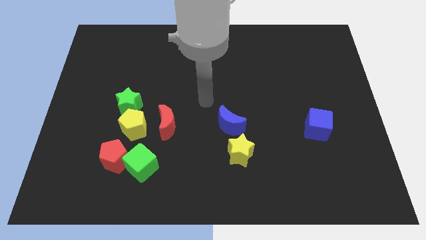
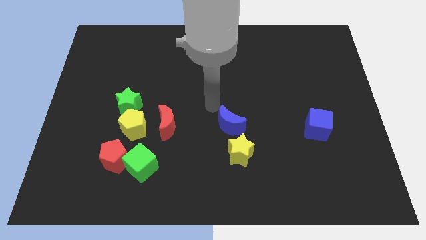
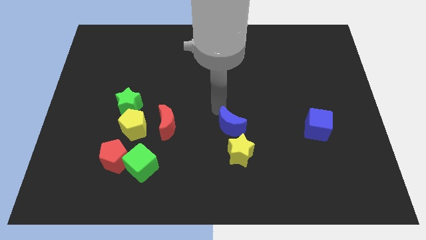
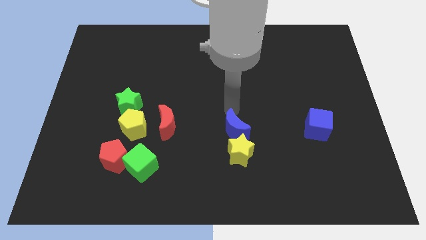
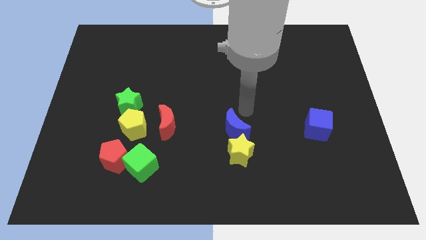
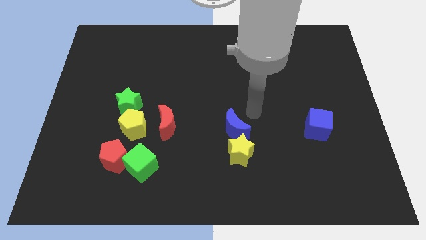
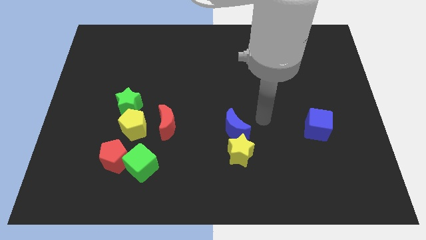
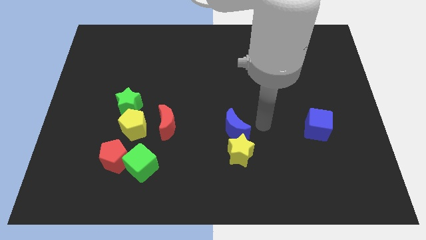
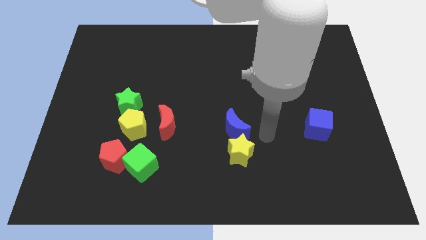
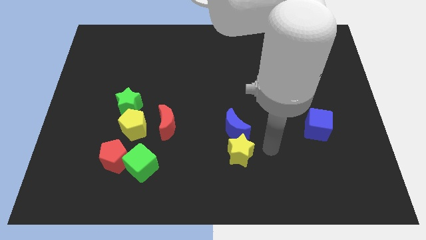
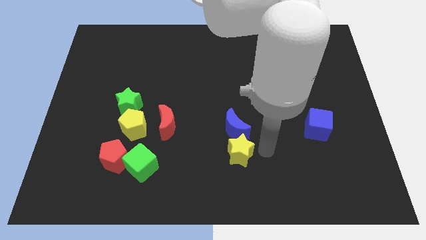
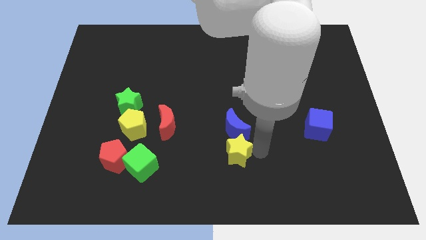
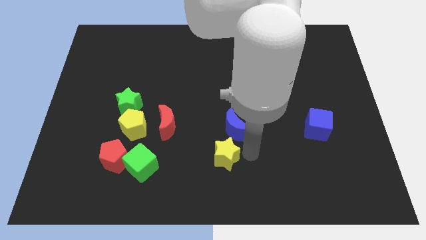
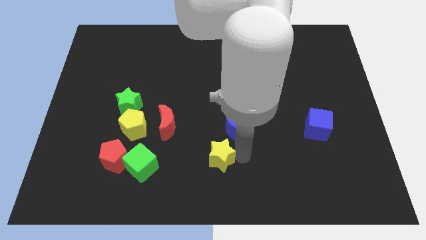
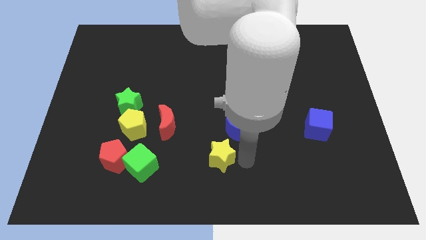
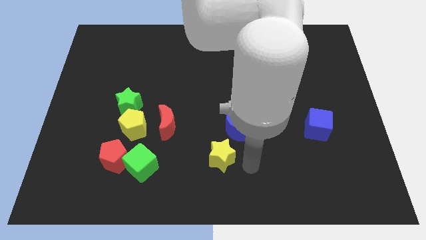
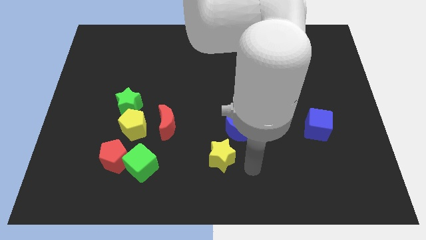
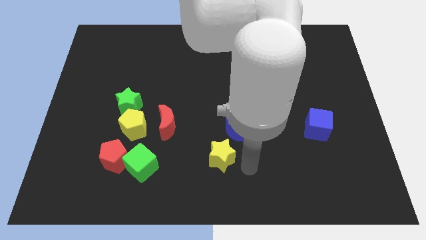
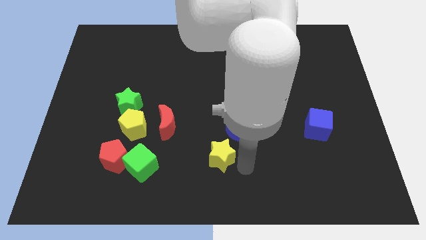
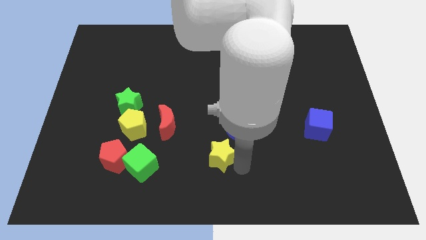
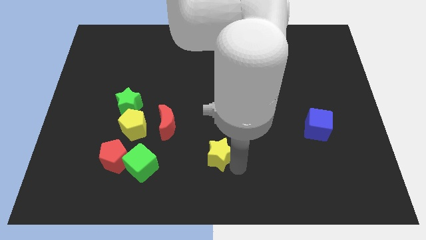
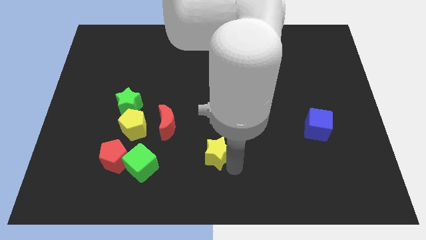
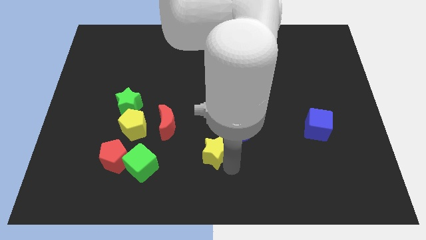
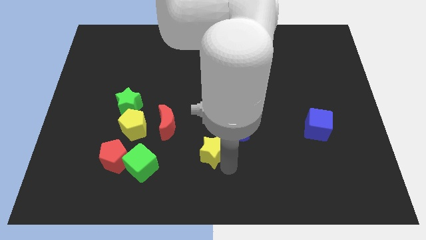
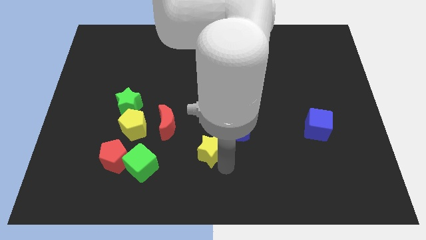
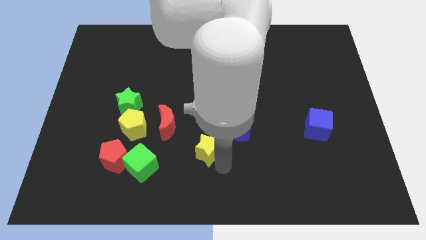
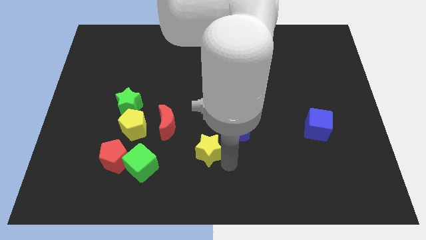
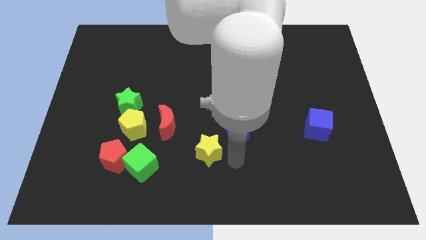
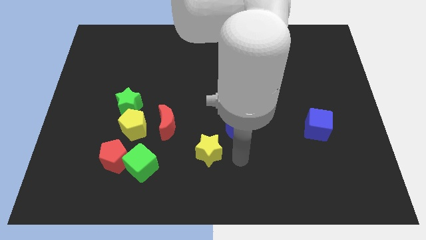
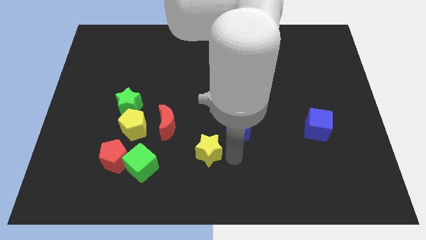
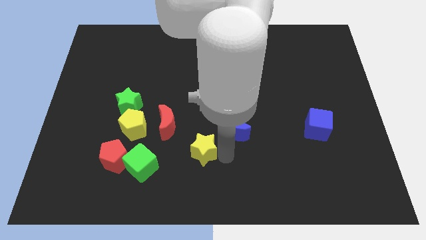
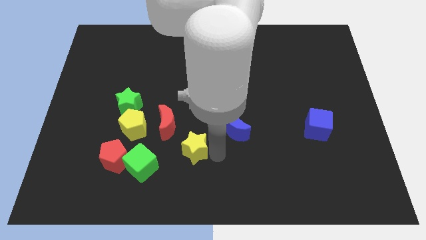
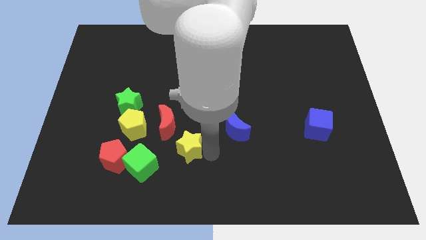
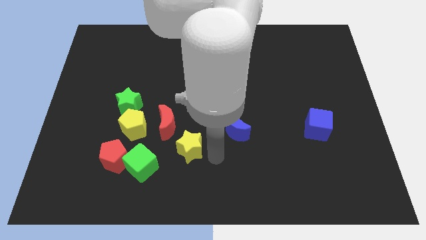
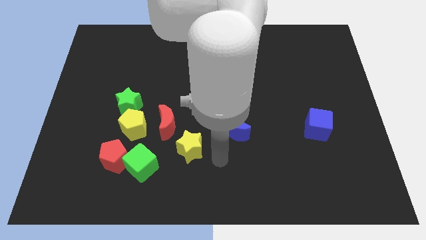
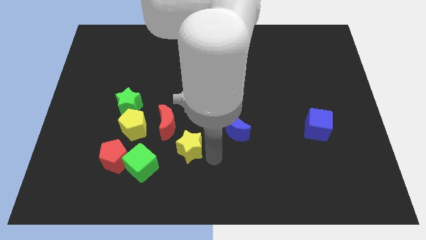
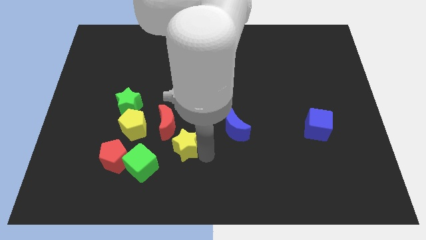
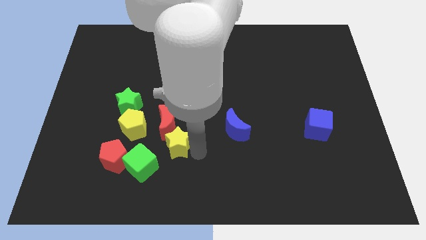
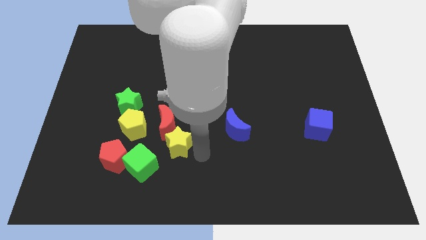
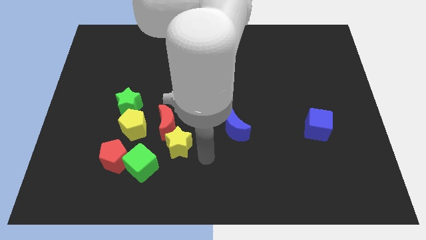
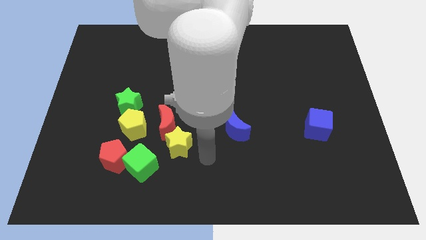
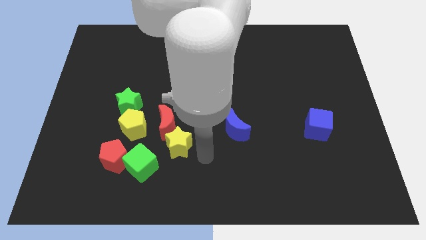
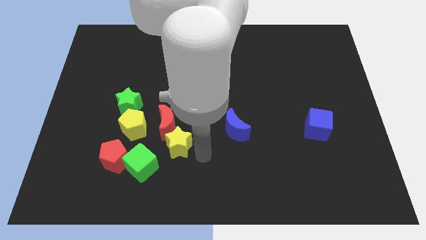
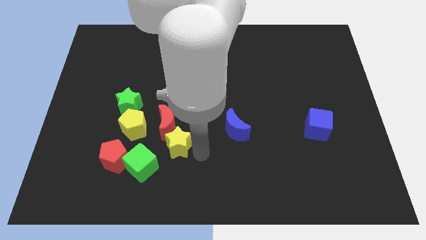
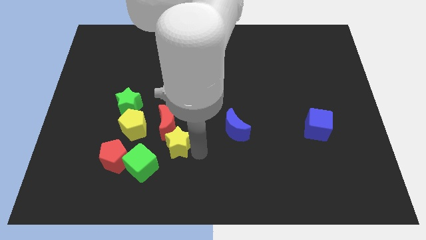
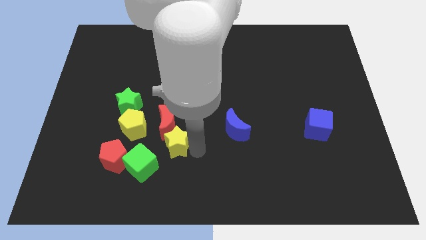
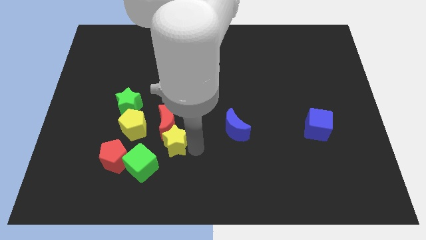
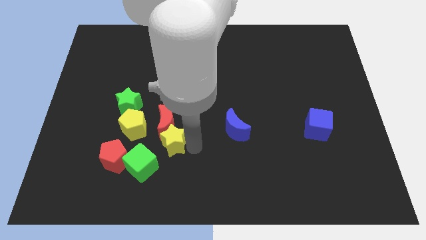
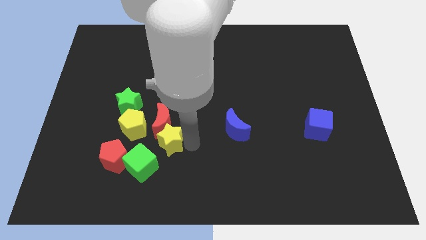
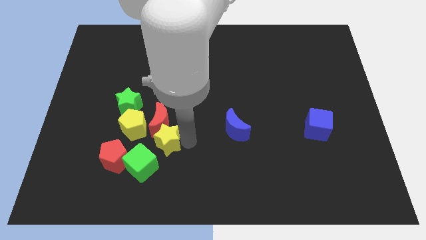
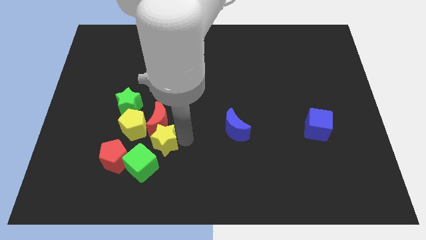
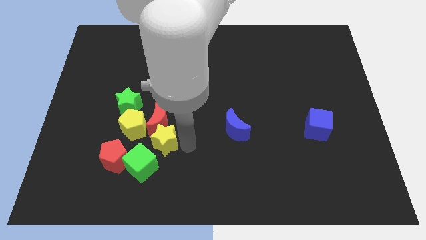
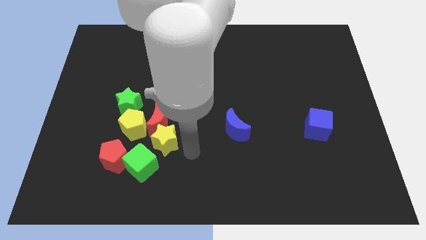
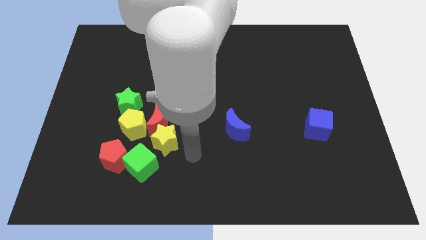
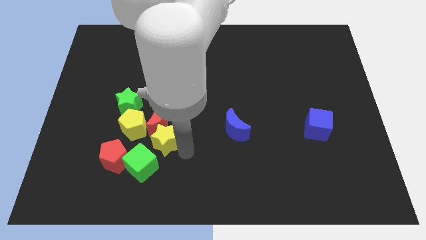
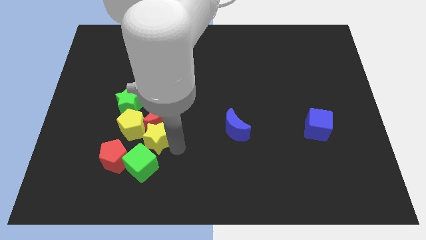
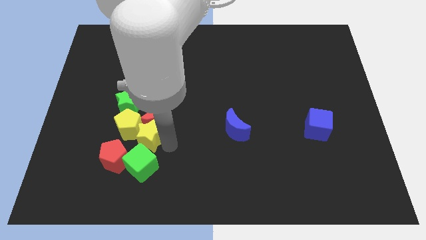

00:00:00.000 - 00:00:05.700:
slide the yellow star to the yellow pentagon

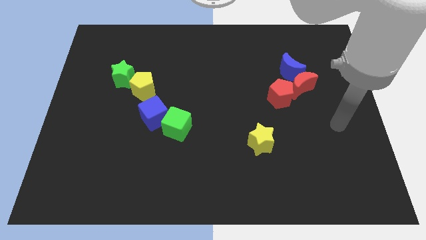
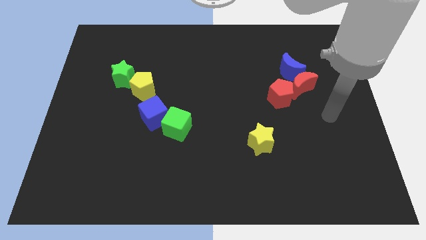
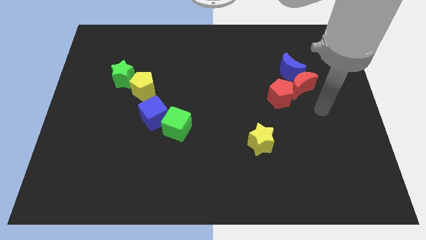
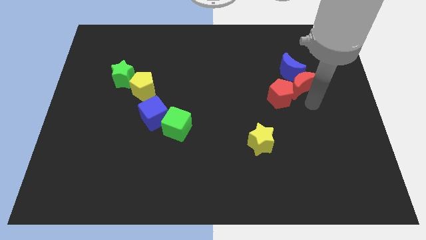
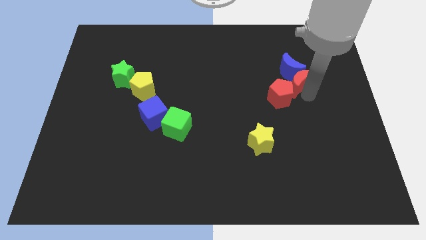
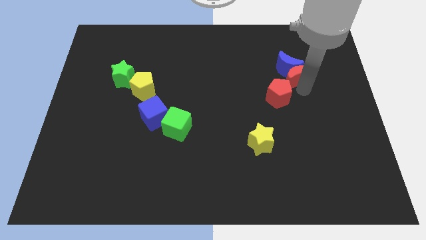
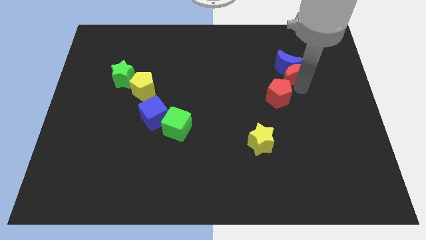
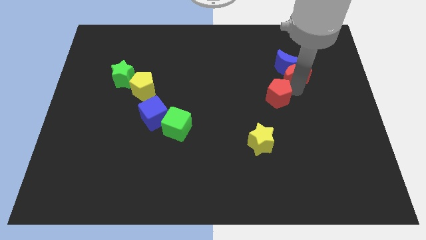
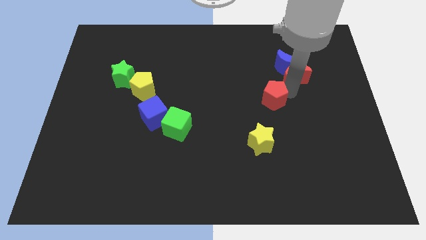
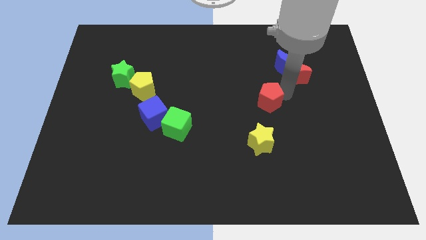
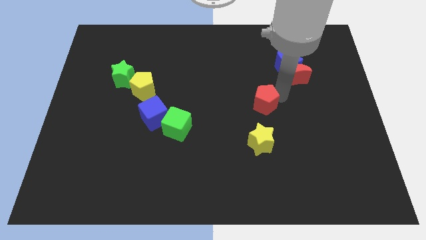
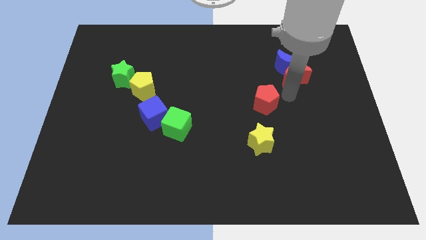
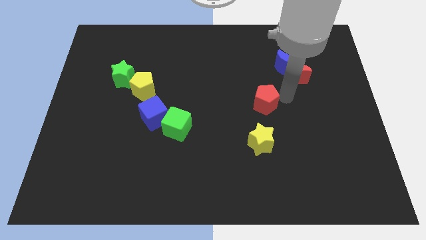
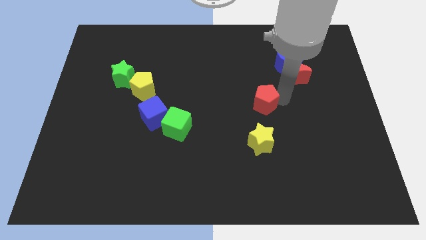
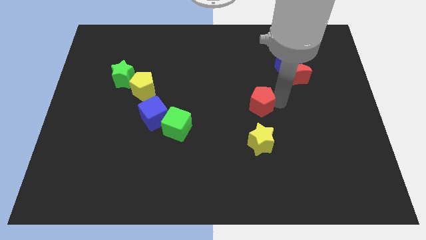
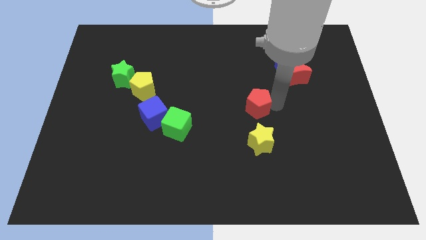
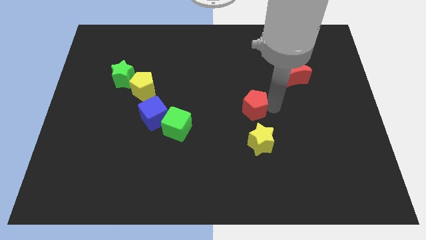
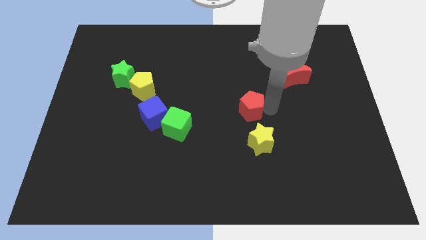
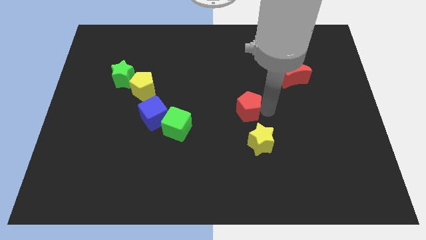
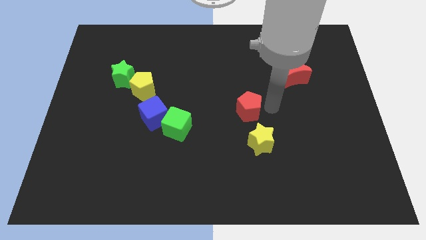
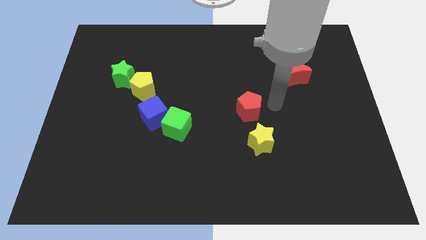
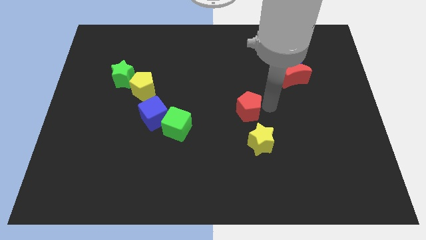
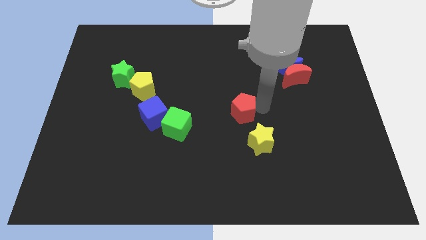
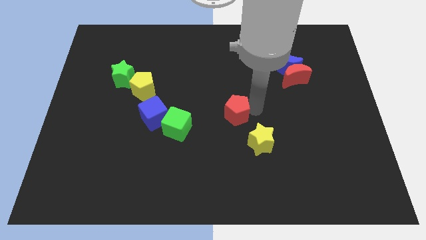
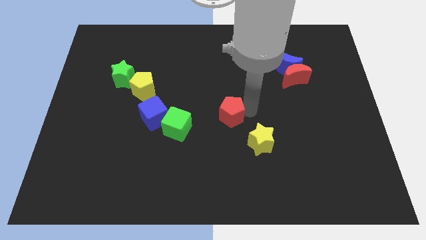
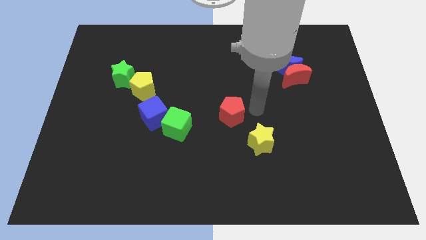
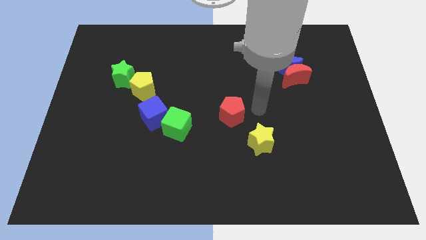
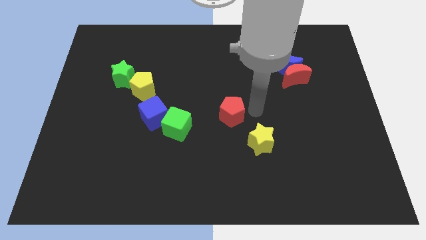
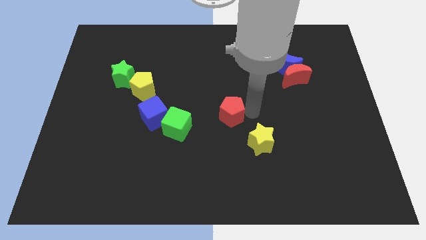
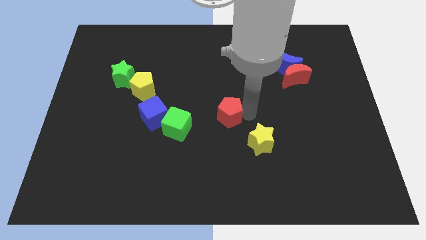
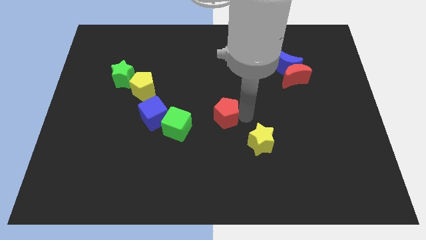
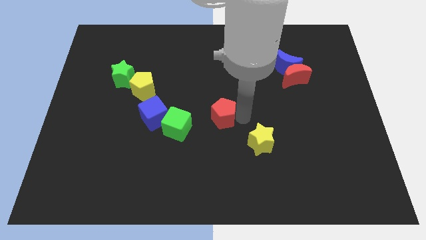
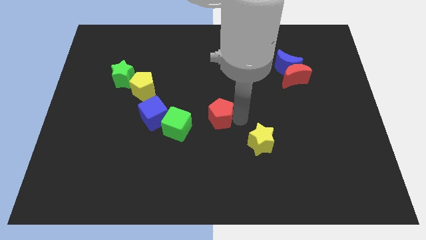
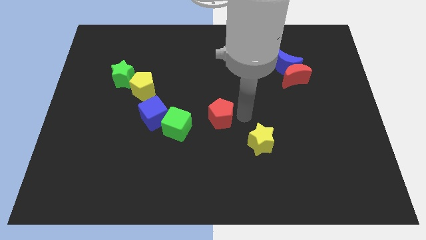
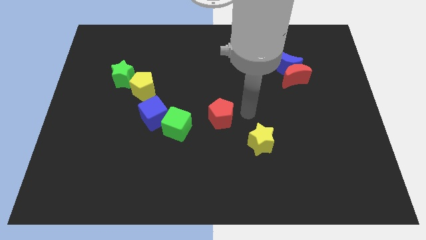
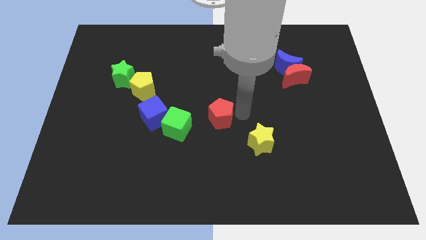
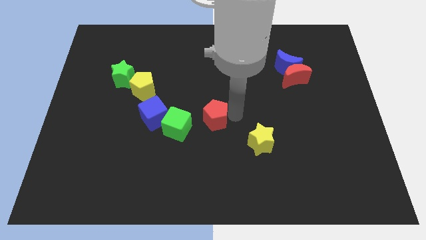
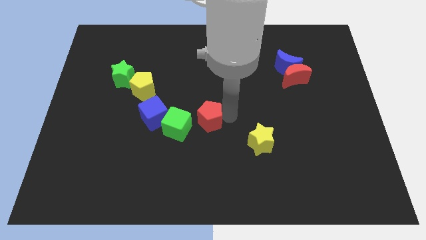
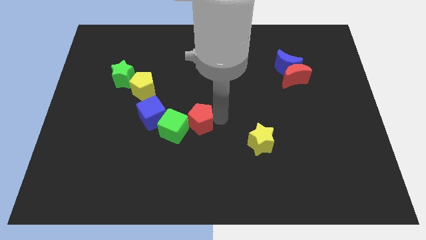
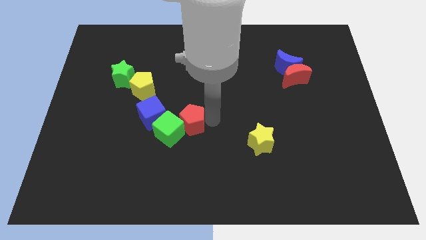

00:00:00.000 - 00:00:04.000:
put the red pentagon towards the green cube
